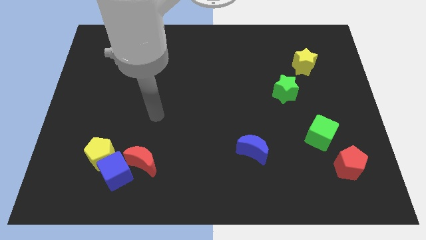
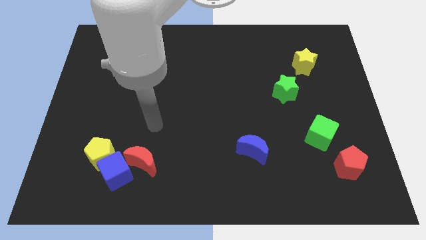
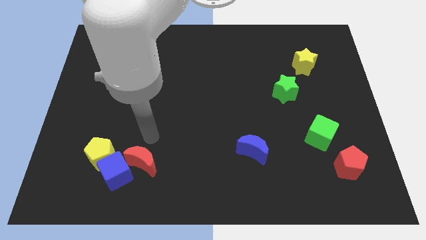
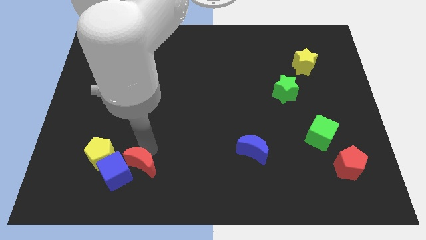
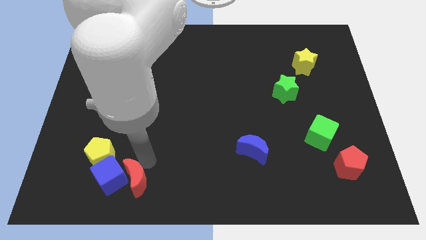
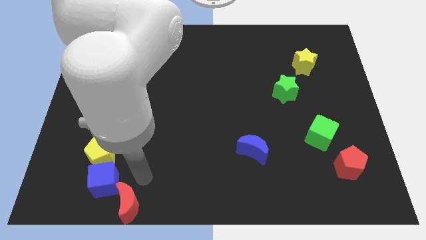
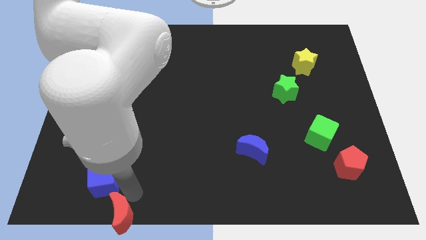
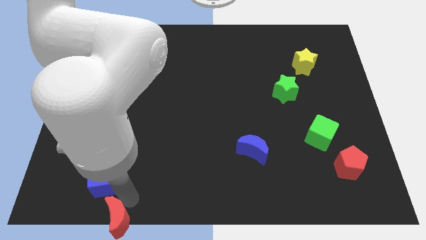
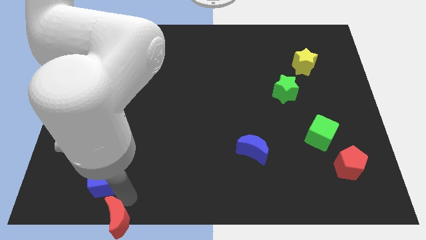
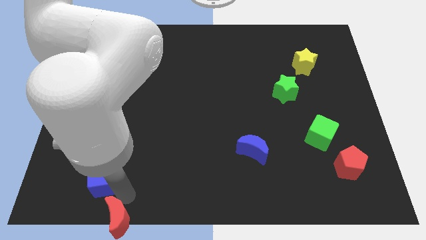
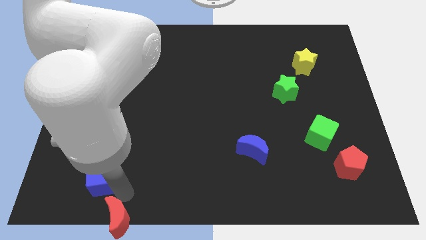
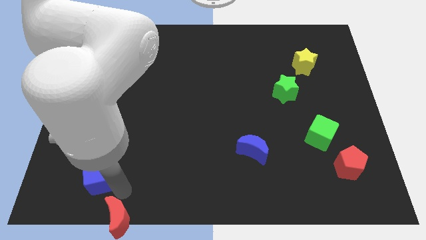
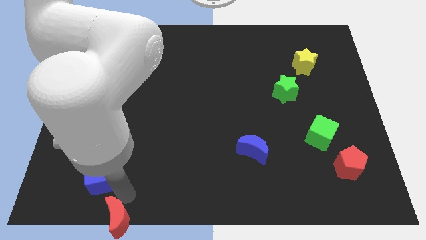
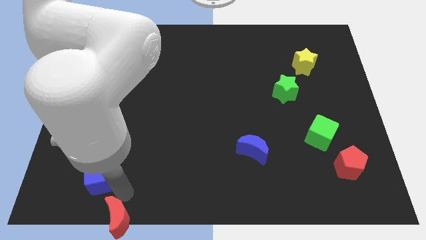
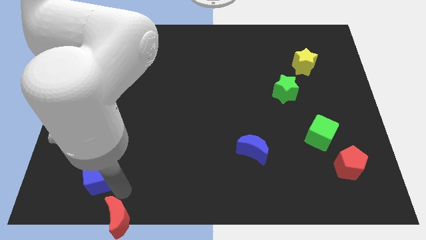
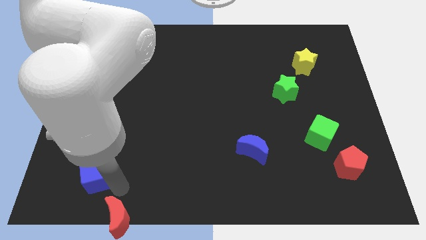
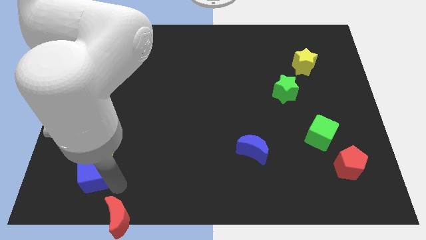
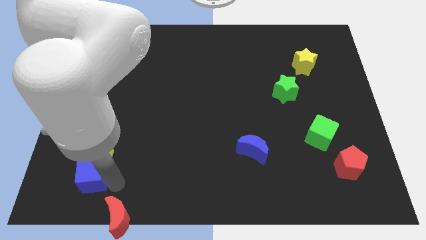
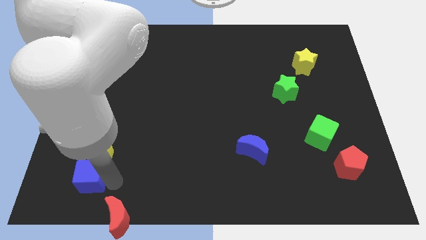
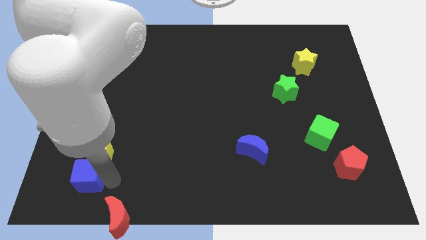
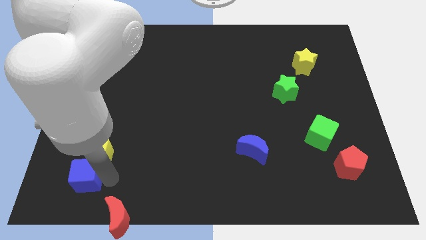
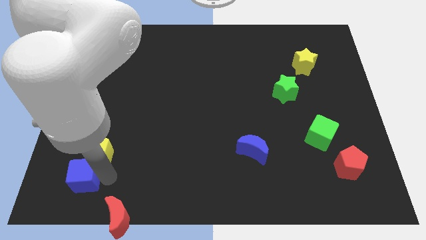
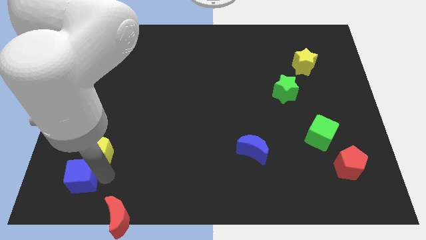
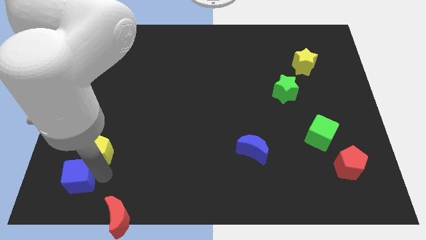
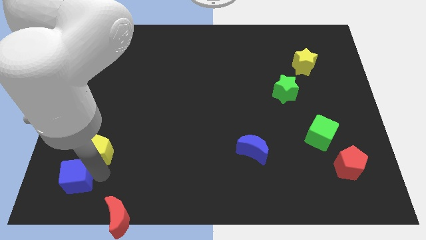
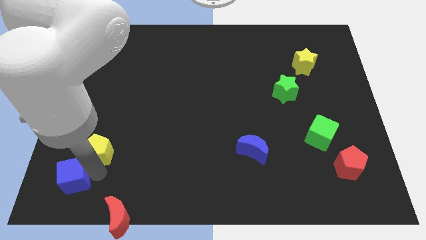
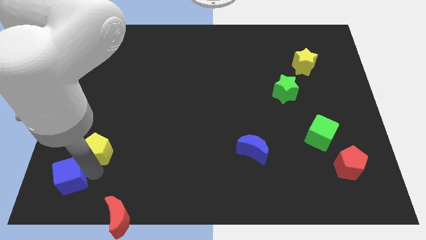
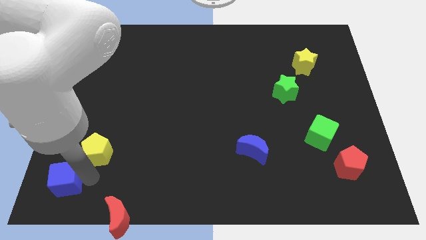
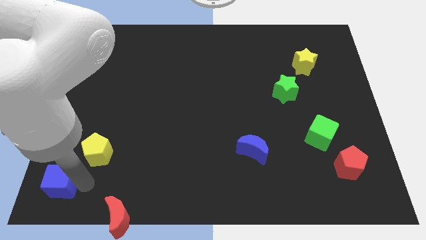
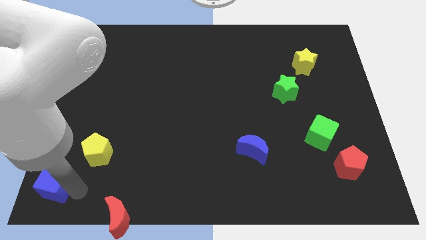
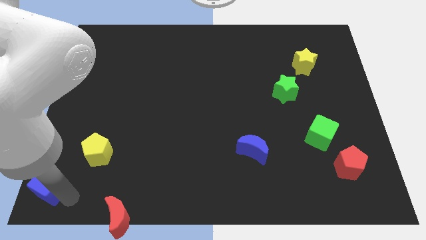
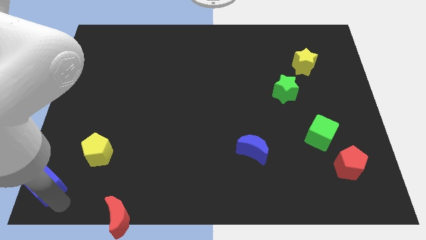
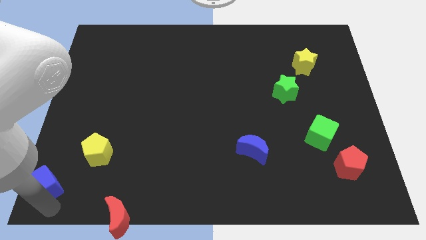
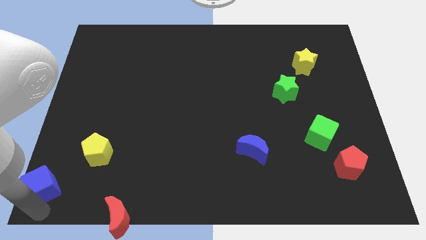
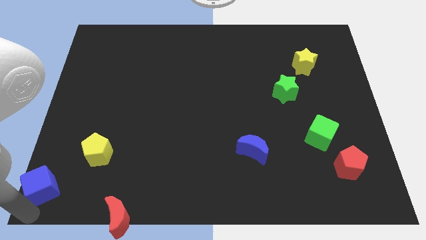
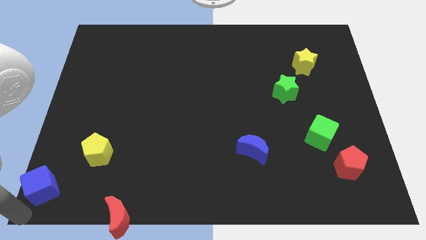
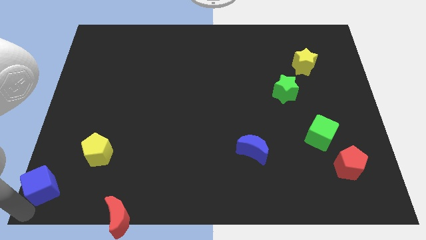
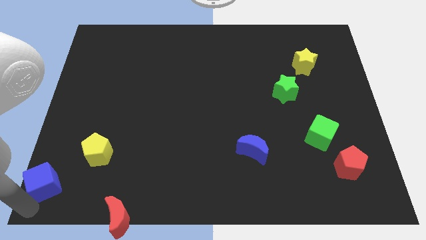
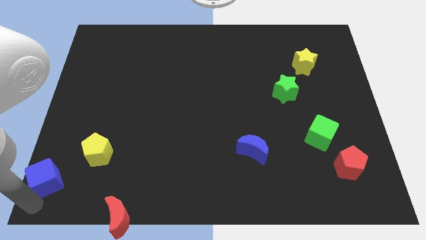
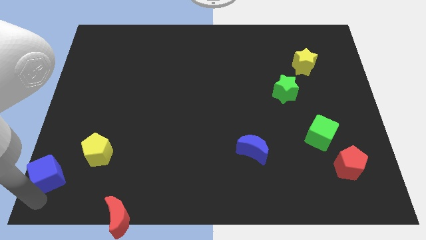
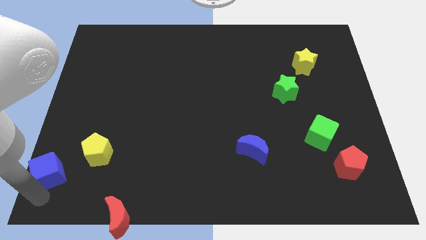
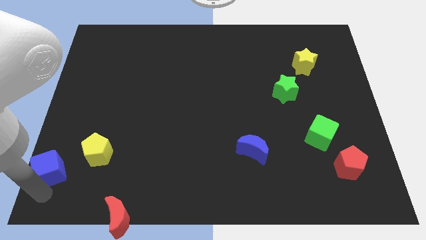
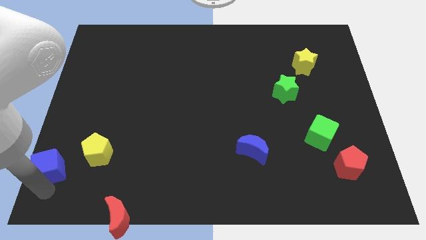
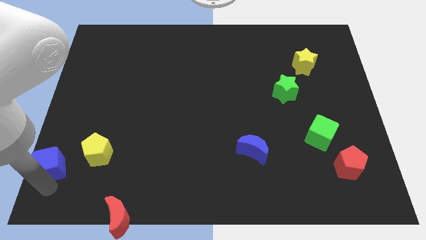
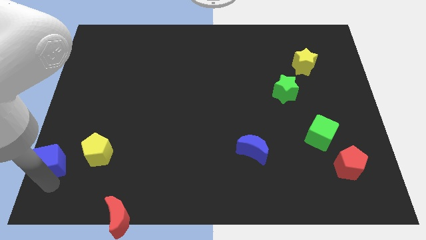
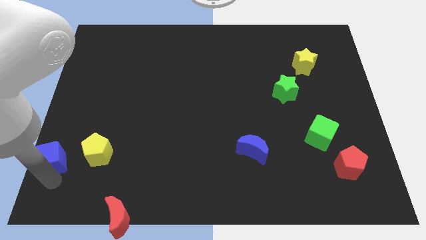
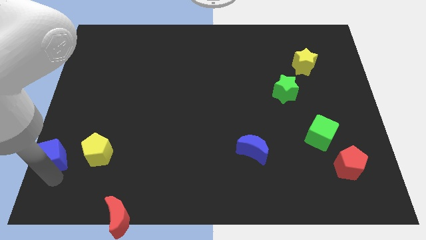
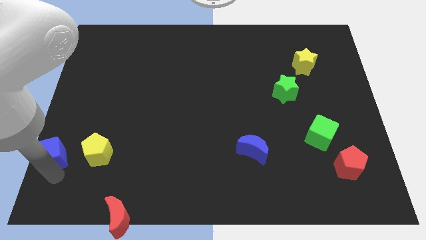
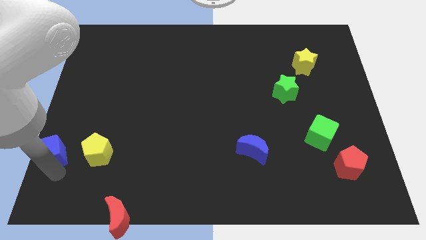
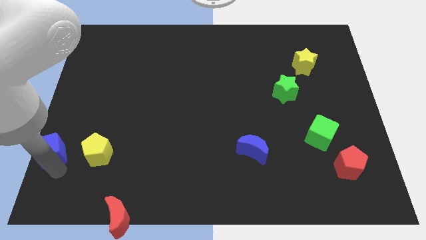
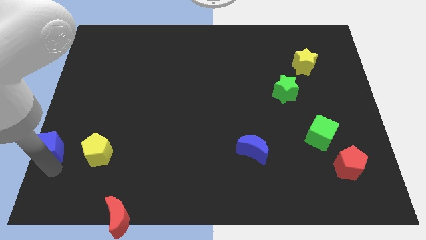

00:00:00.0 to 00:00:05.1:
put the blue cube to the left side of the board

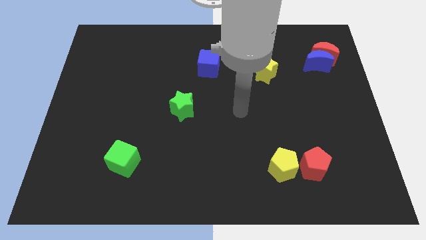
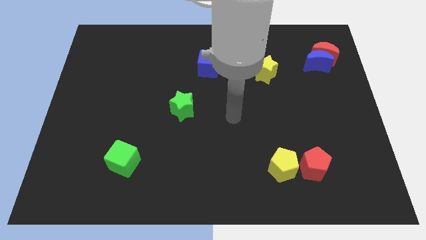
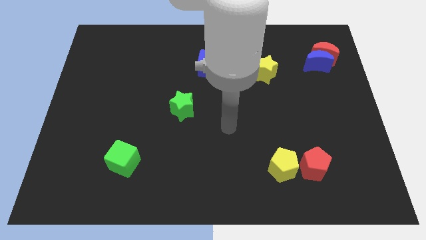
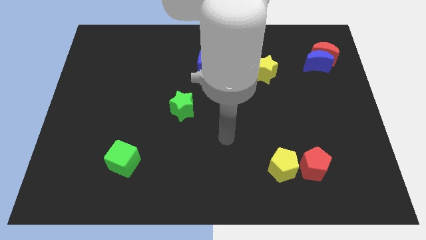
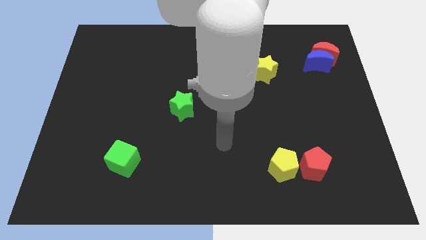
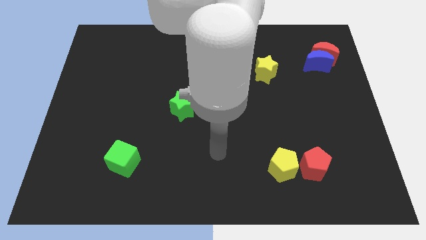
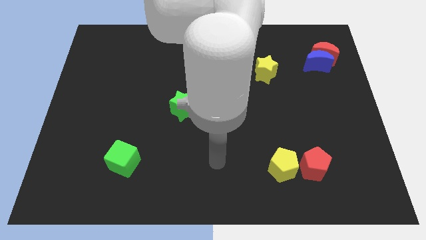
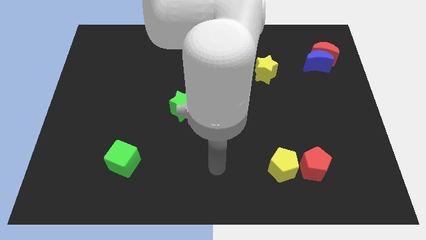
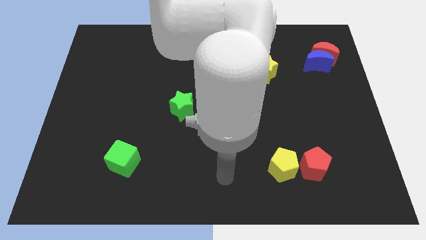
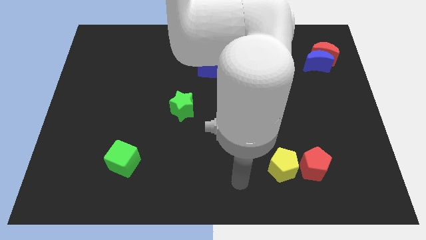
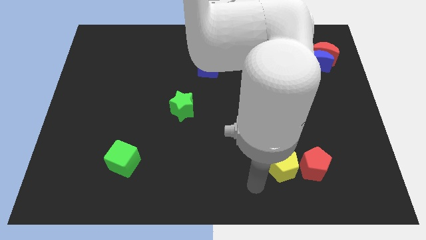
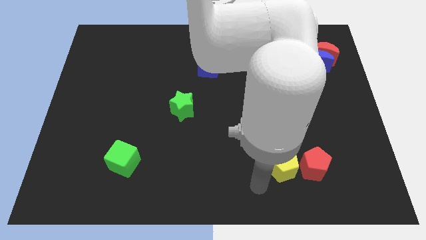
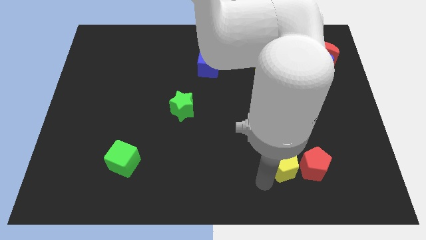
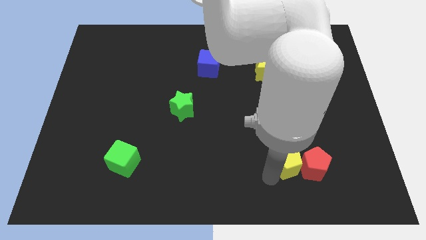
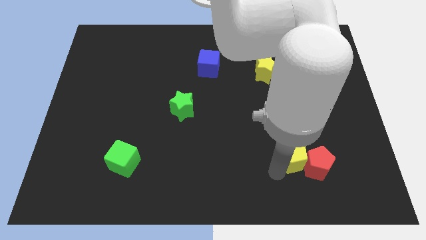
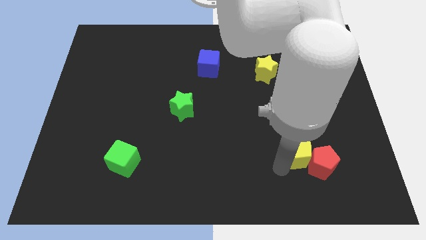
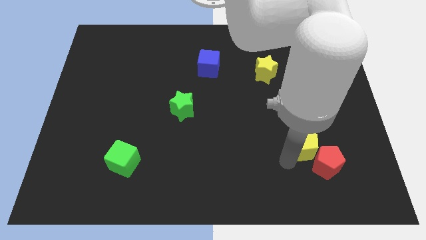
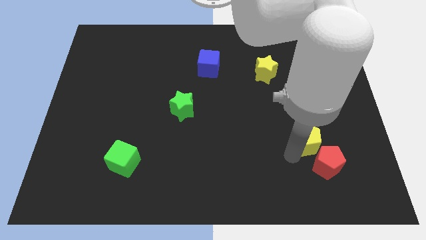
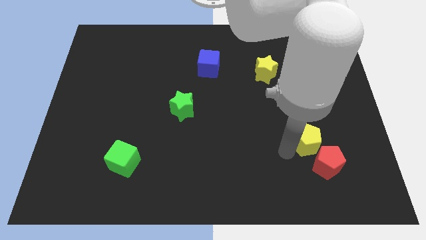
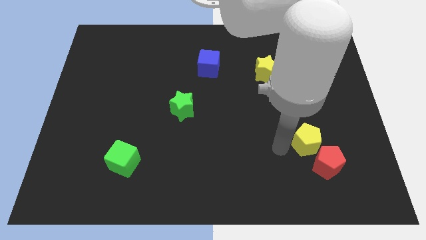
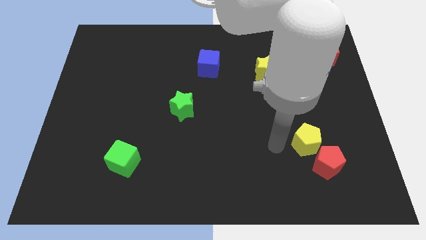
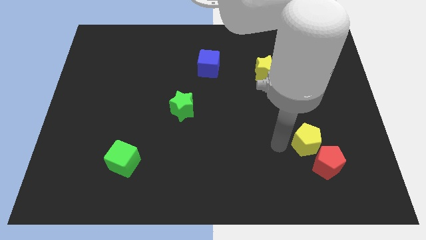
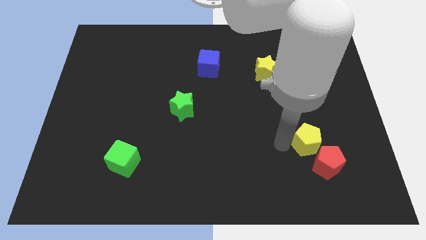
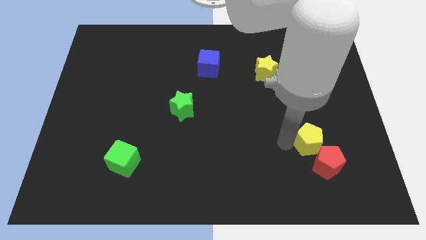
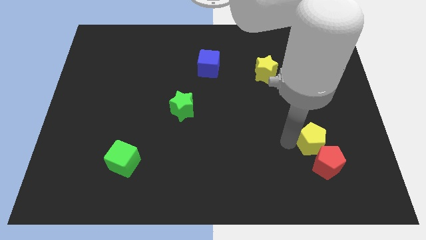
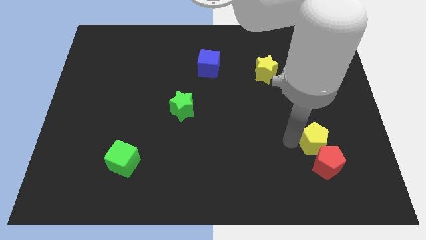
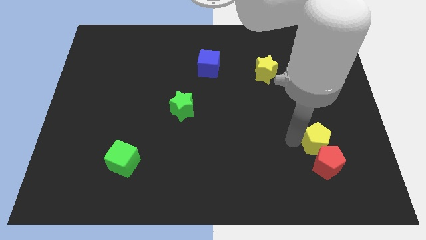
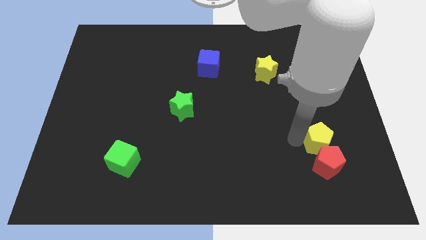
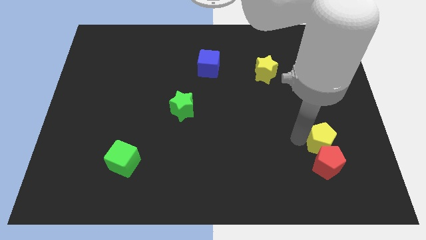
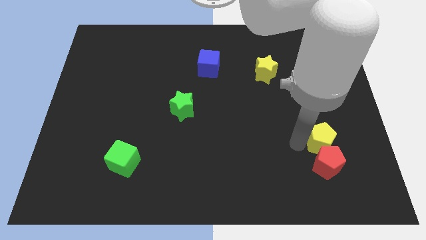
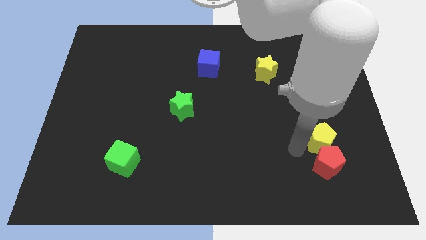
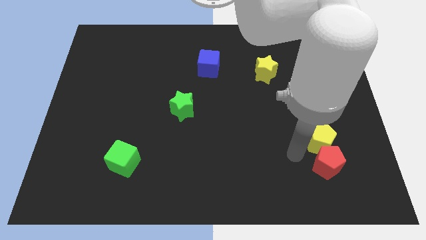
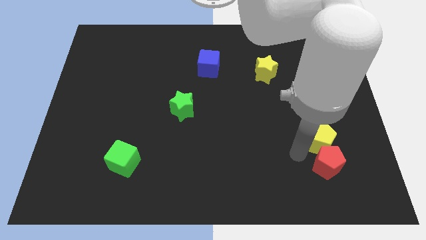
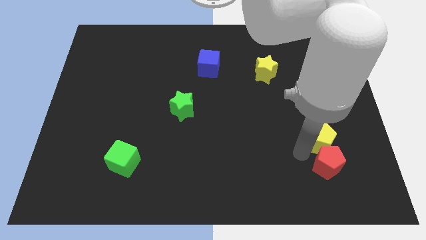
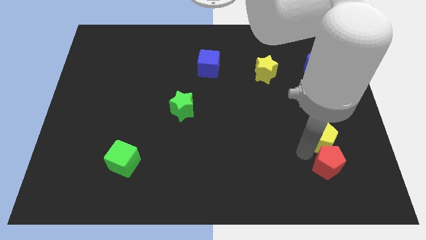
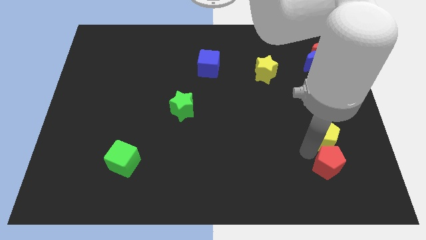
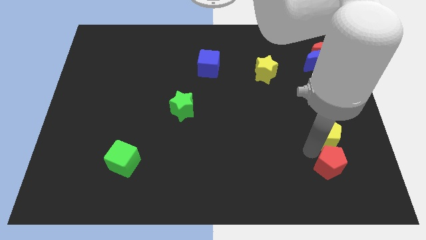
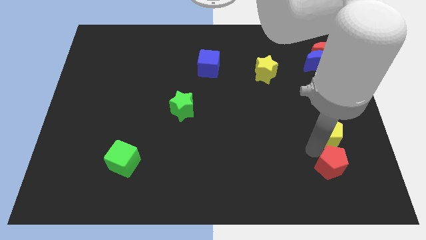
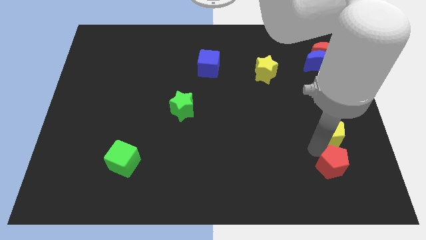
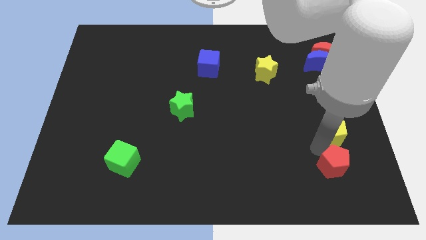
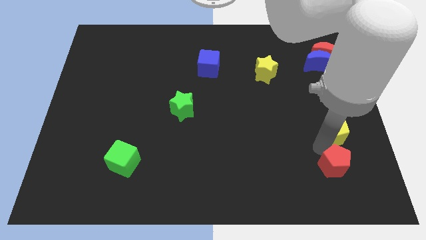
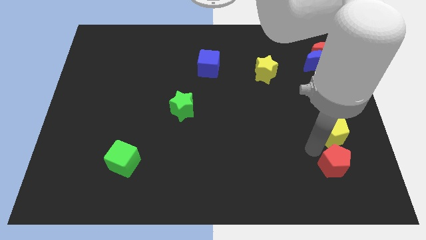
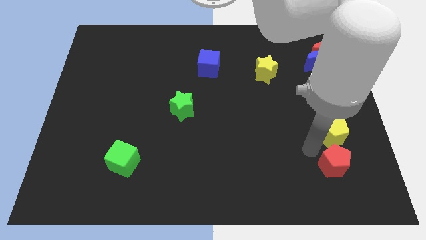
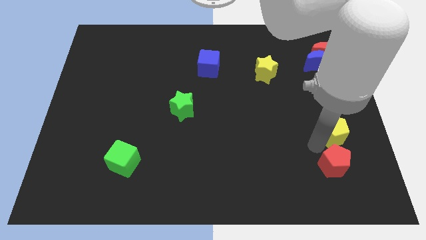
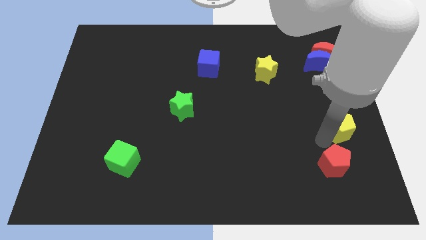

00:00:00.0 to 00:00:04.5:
move the yellow pentagon to the center right
